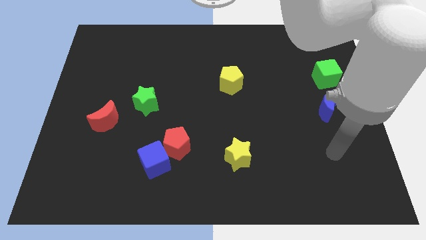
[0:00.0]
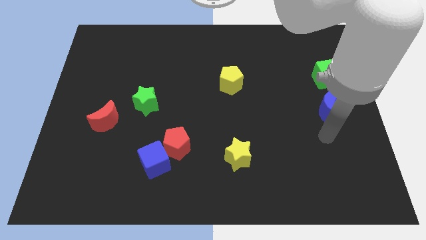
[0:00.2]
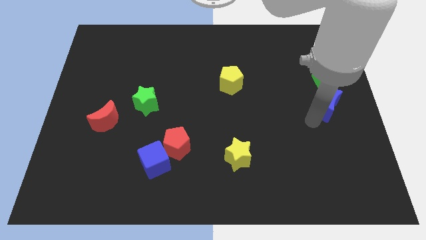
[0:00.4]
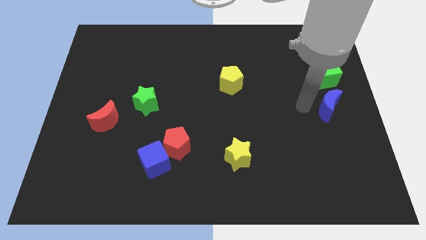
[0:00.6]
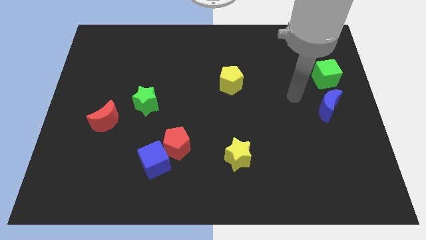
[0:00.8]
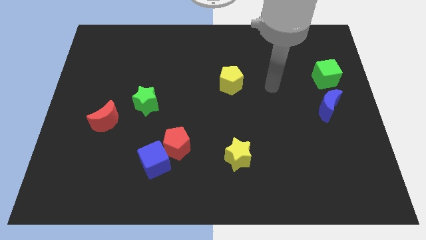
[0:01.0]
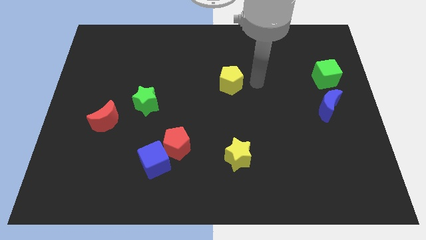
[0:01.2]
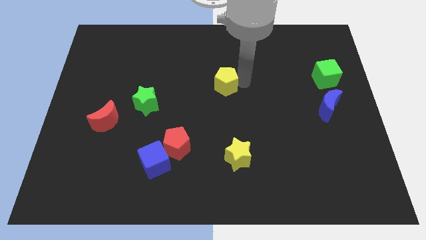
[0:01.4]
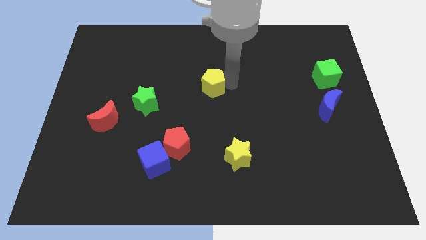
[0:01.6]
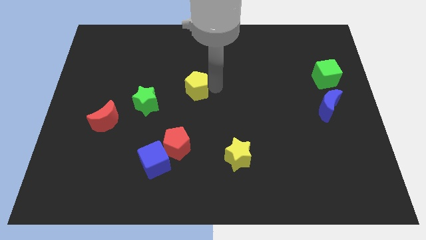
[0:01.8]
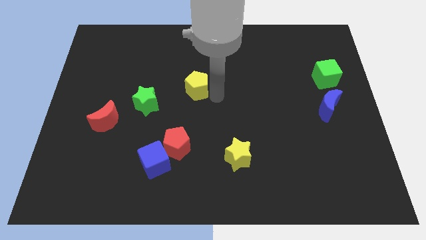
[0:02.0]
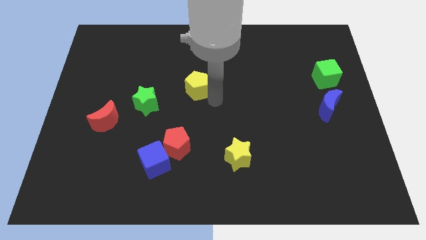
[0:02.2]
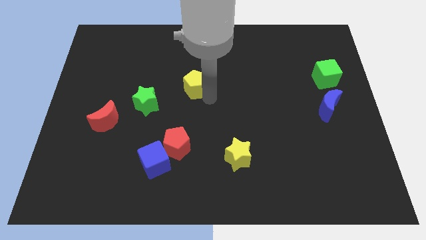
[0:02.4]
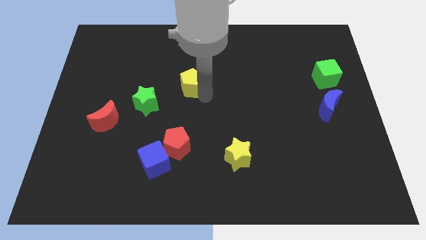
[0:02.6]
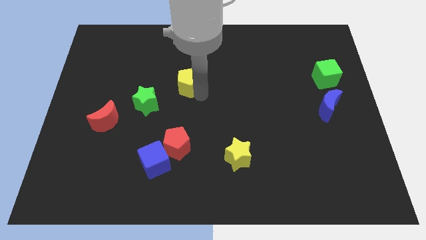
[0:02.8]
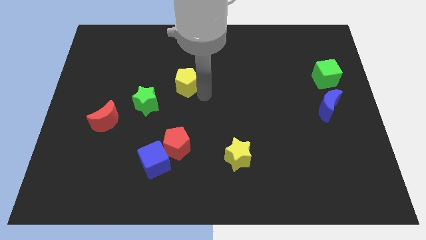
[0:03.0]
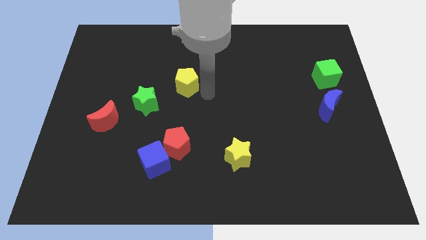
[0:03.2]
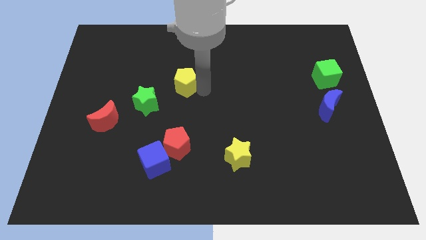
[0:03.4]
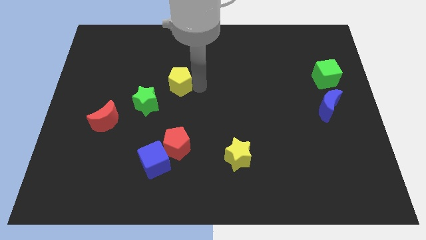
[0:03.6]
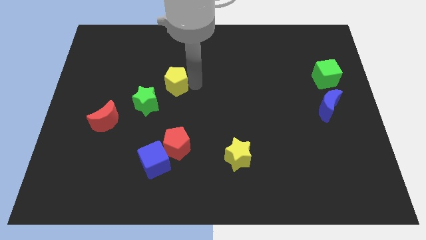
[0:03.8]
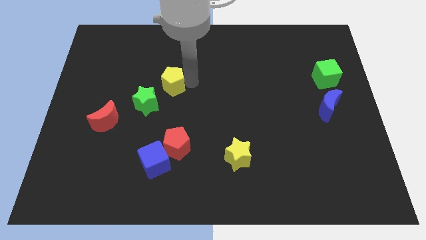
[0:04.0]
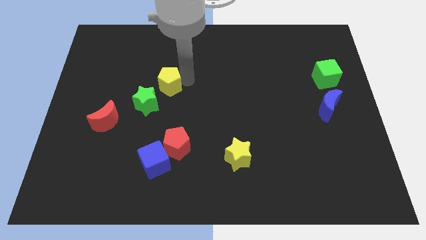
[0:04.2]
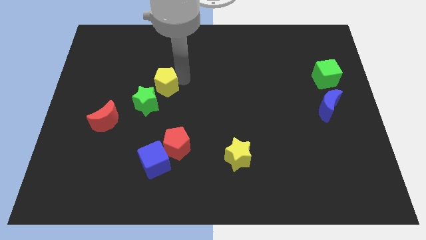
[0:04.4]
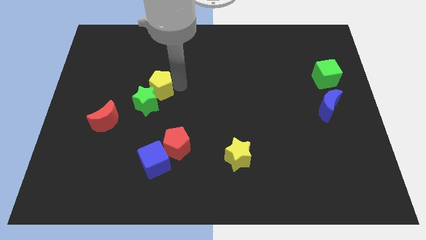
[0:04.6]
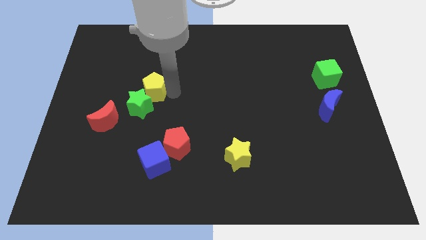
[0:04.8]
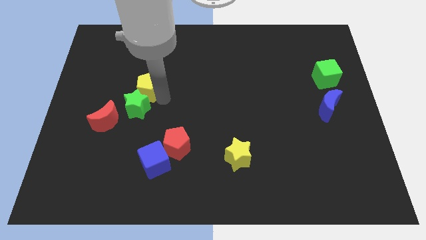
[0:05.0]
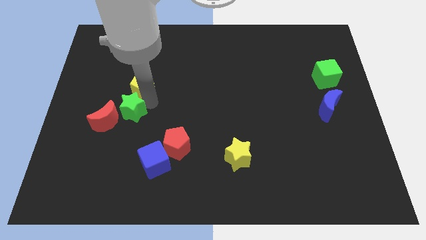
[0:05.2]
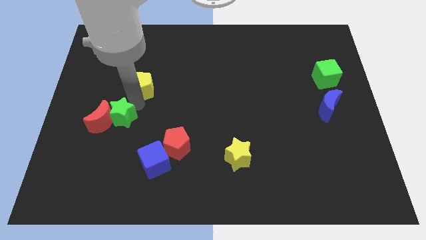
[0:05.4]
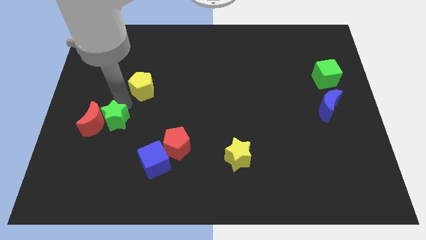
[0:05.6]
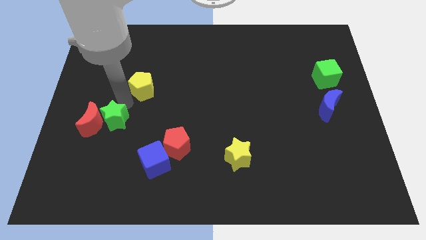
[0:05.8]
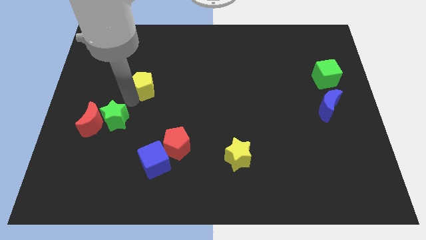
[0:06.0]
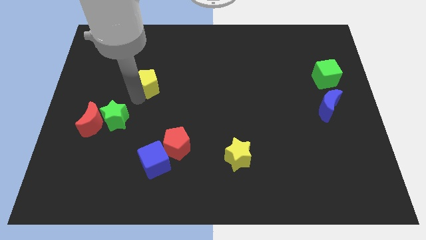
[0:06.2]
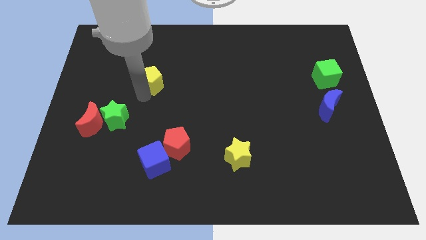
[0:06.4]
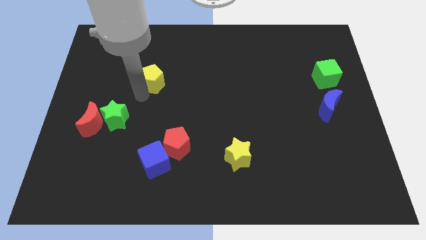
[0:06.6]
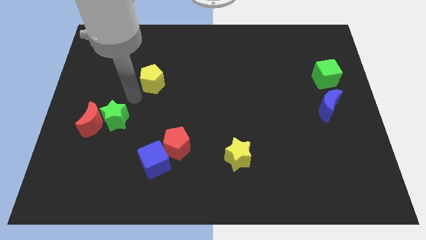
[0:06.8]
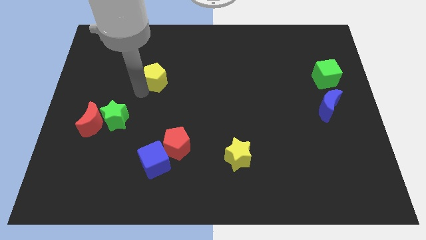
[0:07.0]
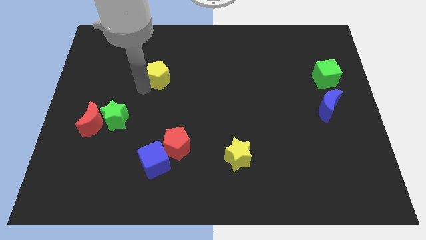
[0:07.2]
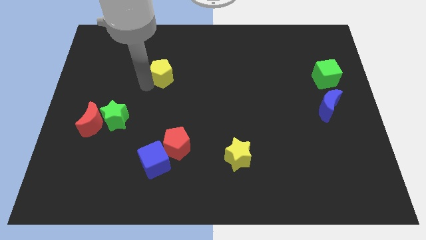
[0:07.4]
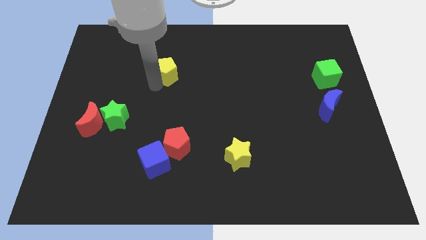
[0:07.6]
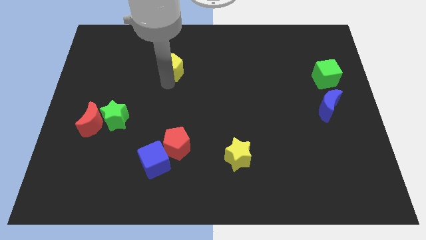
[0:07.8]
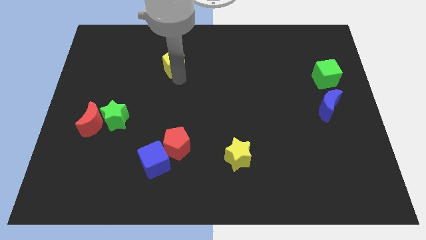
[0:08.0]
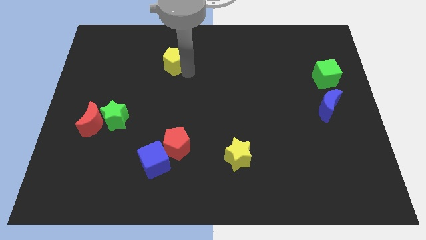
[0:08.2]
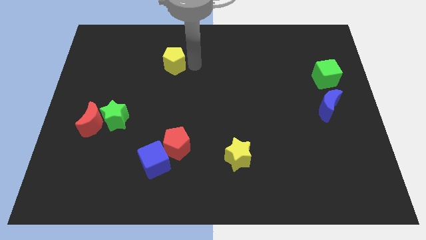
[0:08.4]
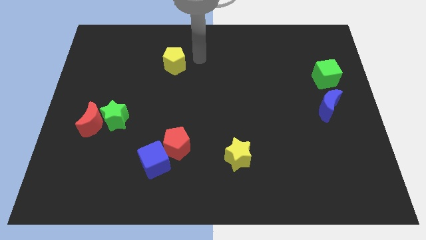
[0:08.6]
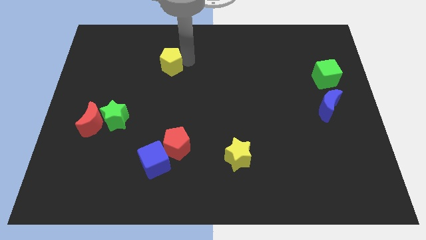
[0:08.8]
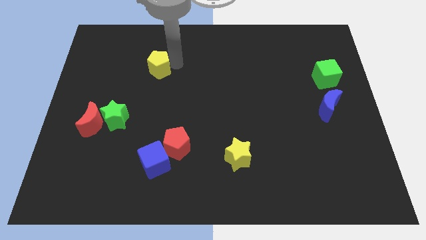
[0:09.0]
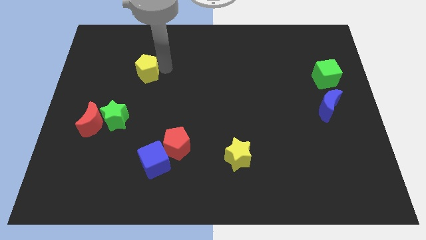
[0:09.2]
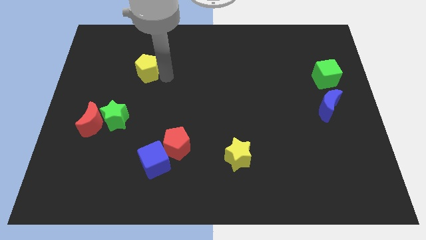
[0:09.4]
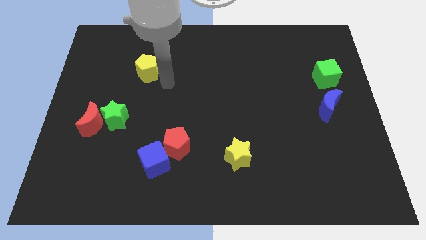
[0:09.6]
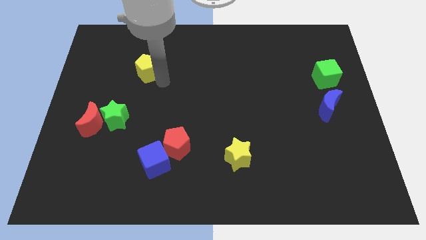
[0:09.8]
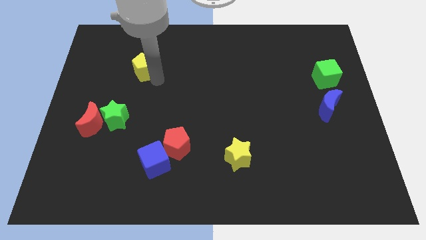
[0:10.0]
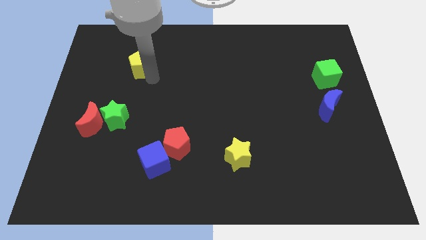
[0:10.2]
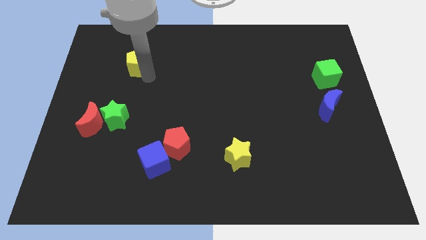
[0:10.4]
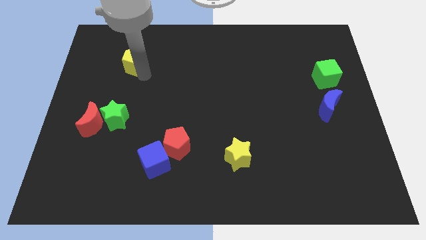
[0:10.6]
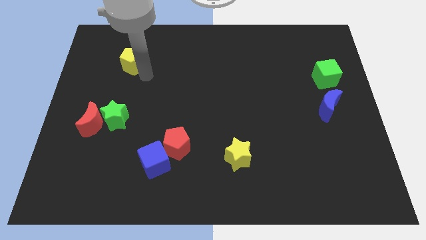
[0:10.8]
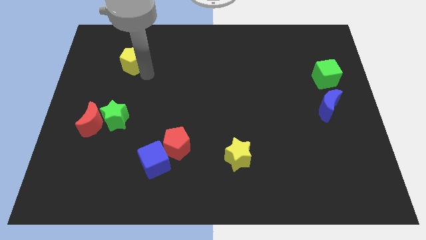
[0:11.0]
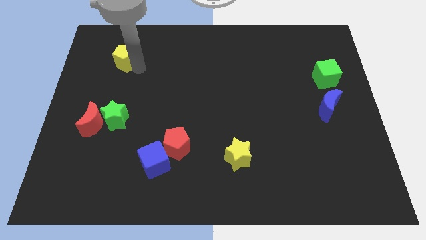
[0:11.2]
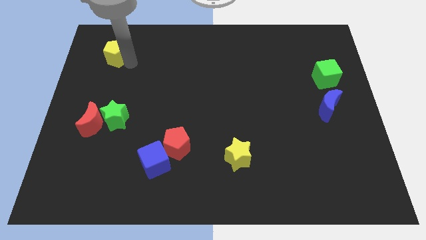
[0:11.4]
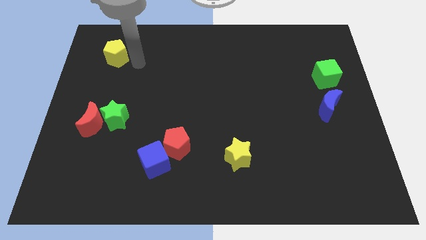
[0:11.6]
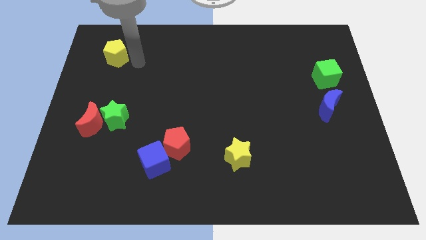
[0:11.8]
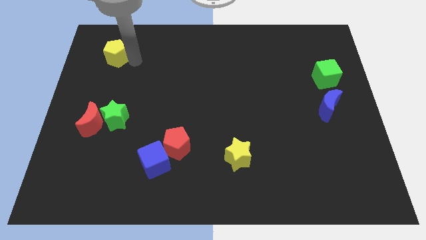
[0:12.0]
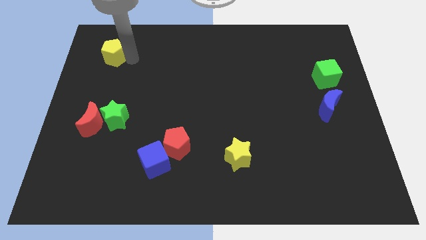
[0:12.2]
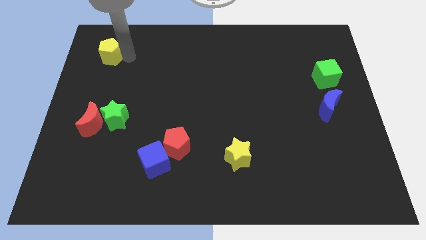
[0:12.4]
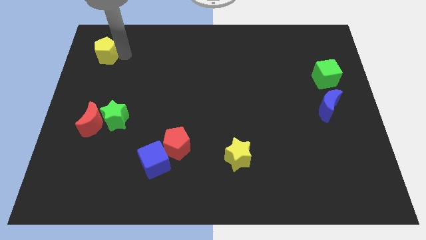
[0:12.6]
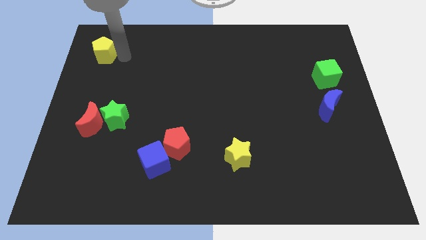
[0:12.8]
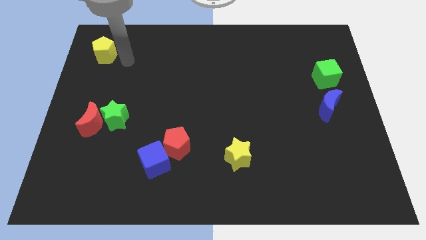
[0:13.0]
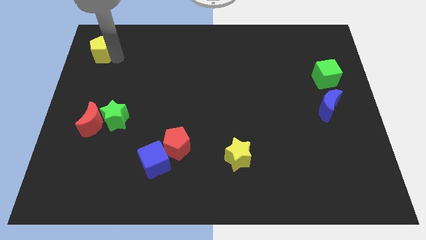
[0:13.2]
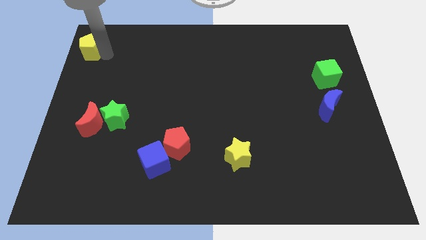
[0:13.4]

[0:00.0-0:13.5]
put the yellow pentagon to the top left corner
